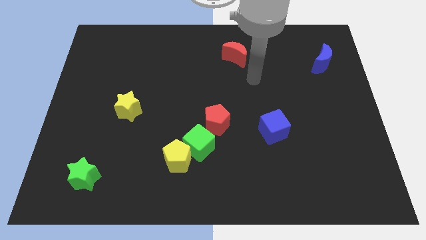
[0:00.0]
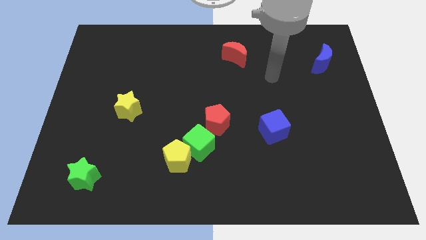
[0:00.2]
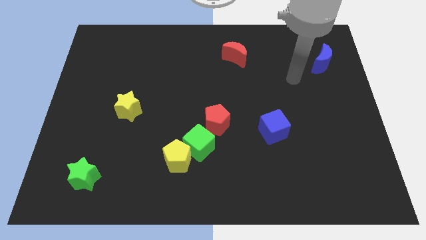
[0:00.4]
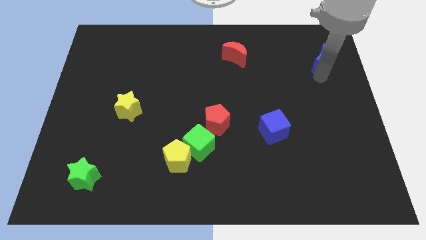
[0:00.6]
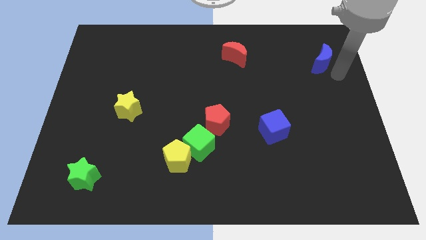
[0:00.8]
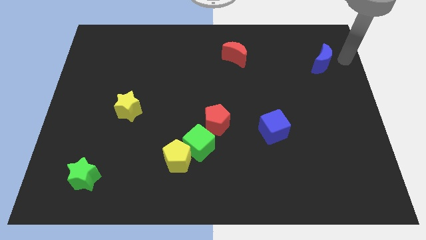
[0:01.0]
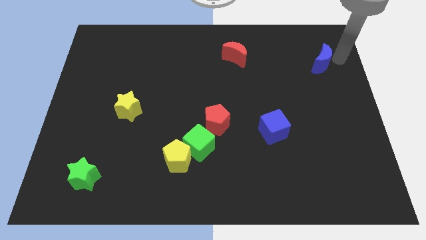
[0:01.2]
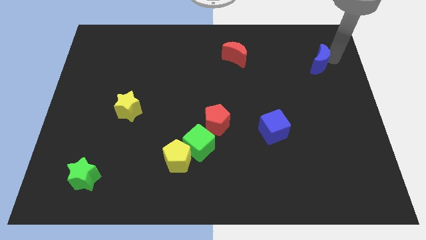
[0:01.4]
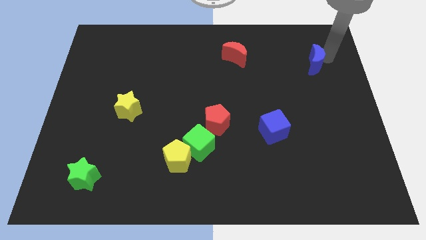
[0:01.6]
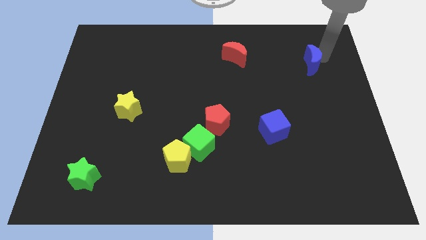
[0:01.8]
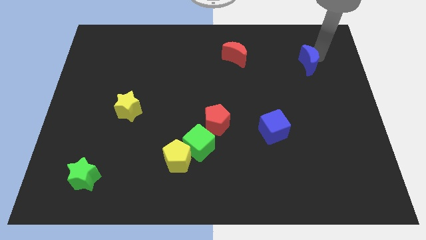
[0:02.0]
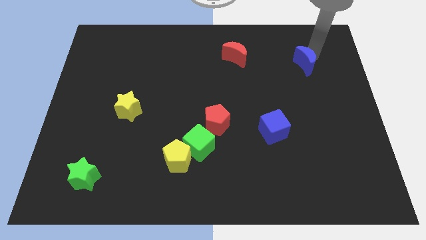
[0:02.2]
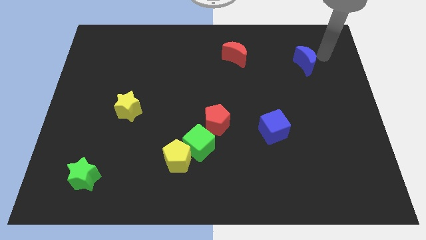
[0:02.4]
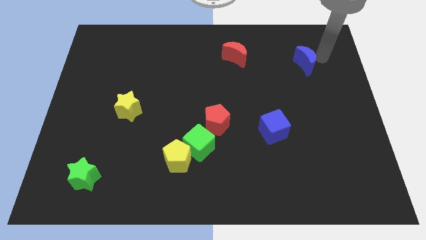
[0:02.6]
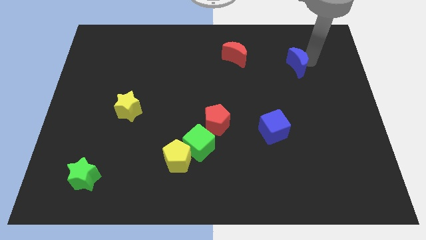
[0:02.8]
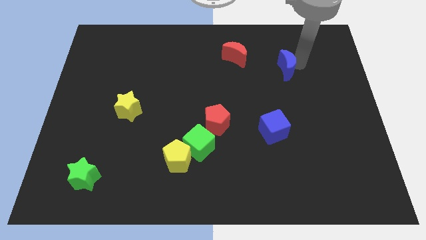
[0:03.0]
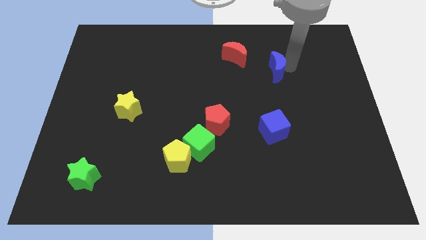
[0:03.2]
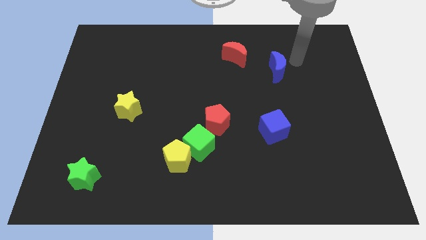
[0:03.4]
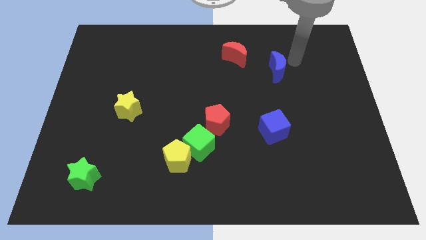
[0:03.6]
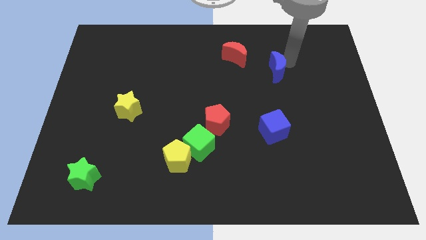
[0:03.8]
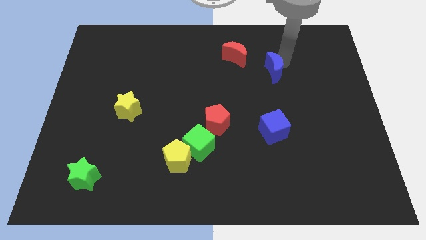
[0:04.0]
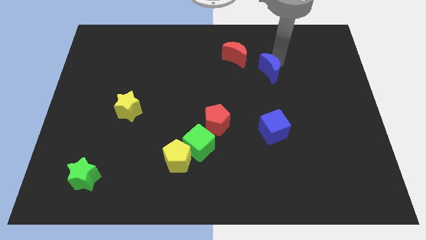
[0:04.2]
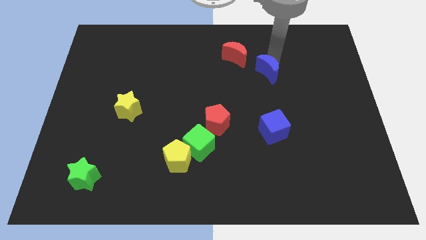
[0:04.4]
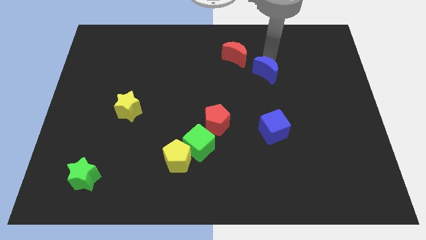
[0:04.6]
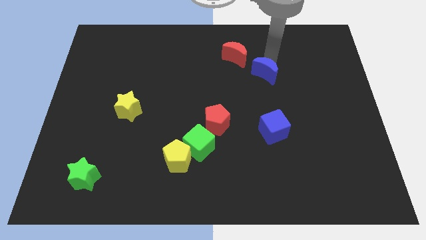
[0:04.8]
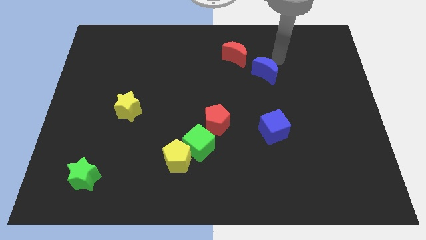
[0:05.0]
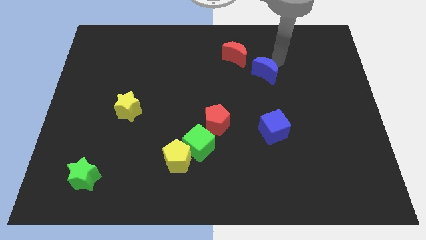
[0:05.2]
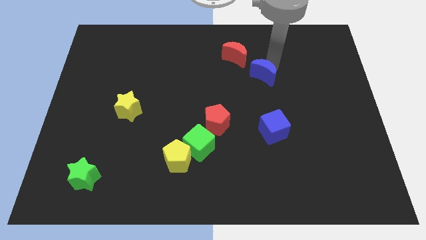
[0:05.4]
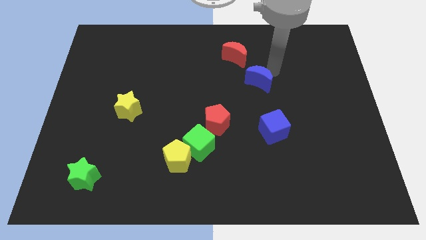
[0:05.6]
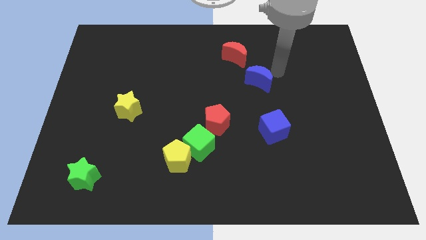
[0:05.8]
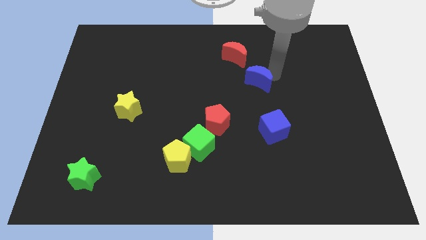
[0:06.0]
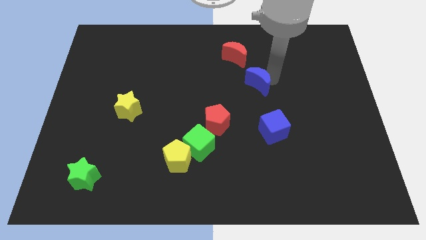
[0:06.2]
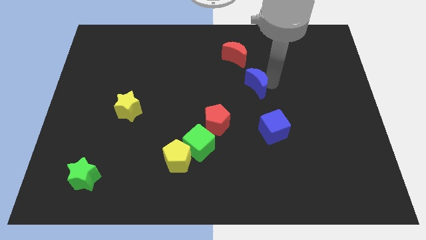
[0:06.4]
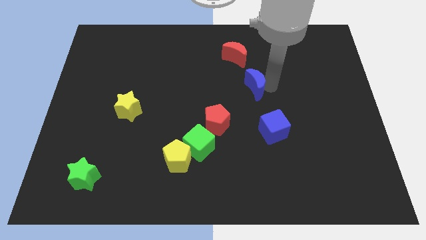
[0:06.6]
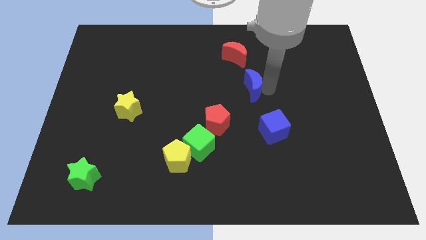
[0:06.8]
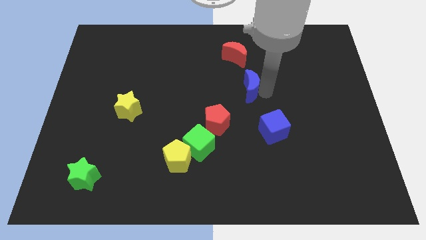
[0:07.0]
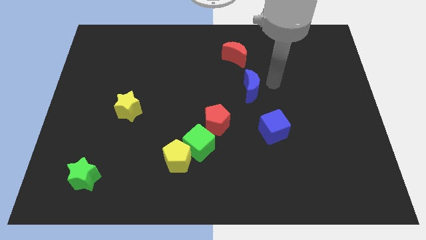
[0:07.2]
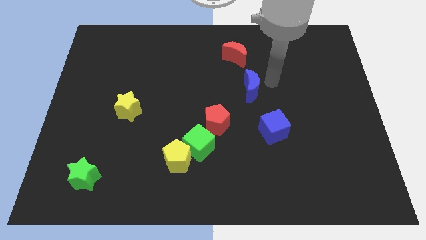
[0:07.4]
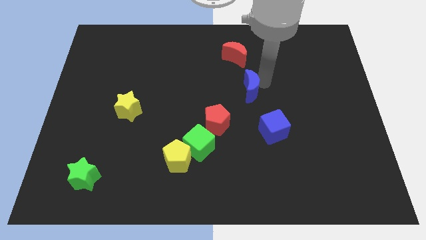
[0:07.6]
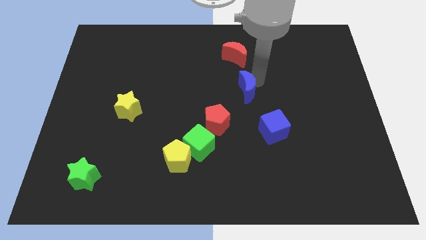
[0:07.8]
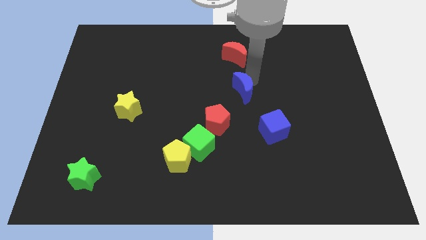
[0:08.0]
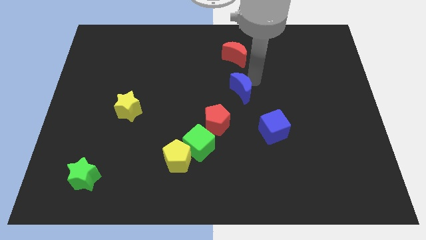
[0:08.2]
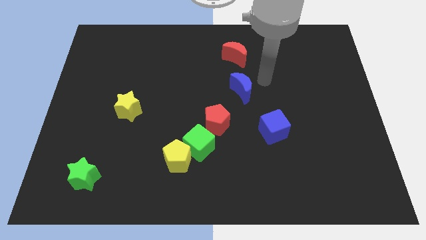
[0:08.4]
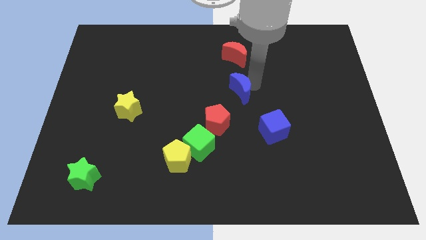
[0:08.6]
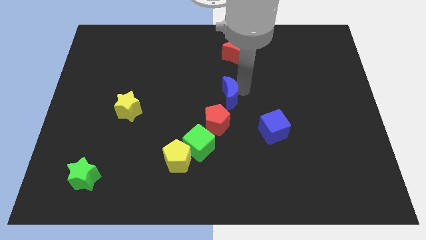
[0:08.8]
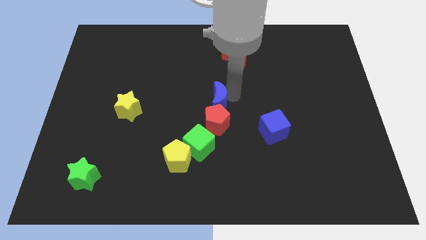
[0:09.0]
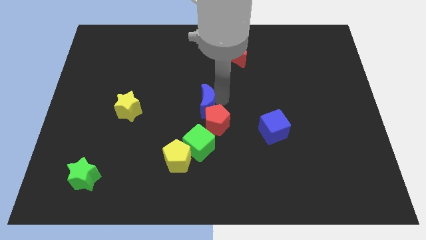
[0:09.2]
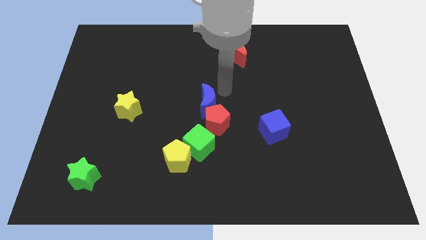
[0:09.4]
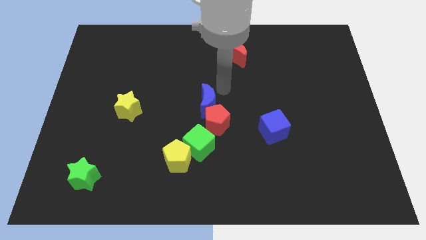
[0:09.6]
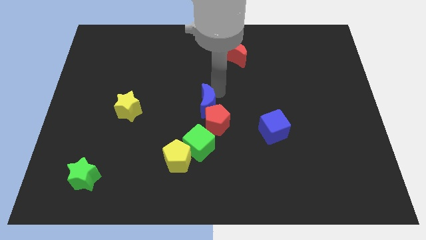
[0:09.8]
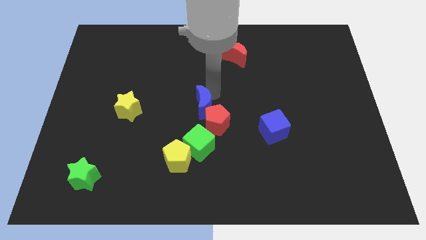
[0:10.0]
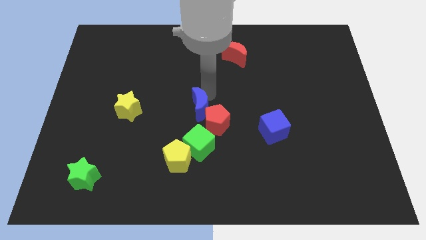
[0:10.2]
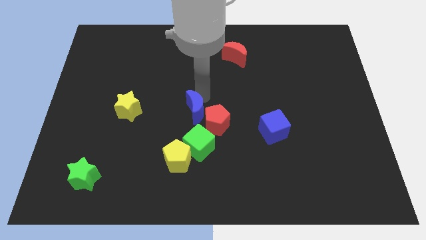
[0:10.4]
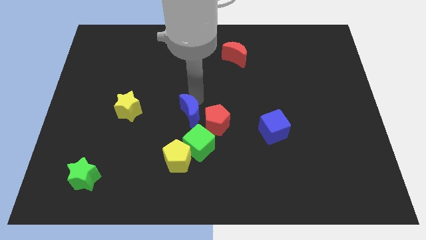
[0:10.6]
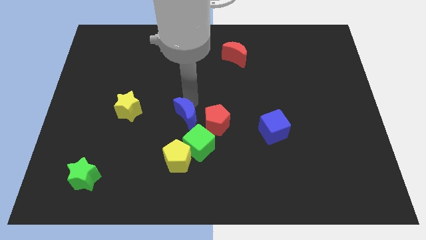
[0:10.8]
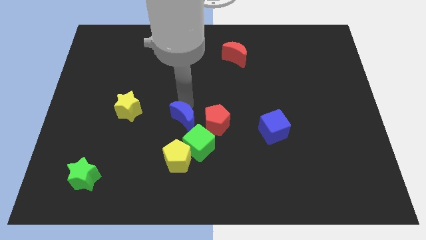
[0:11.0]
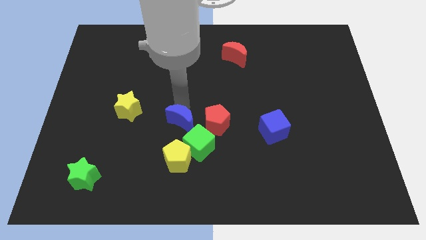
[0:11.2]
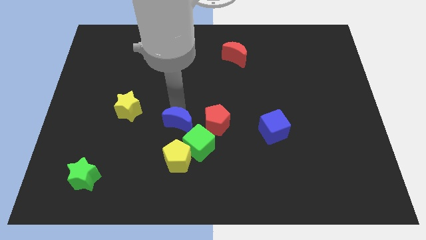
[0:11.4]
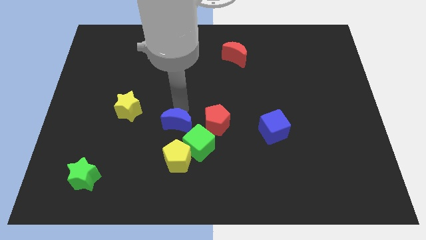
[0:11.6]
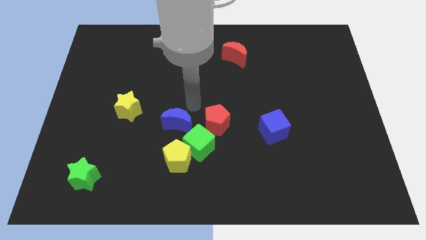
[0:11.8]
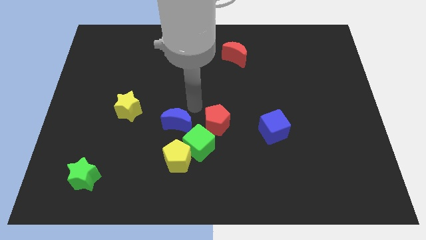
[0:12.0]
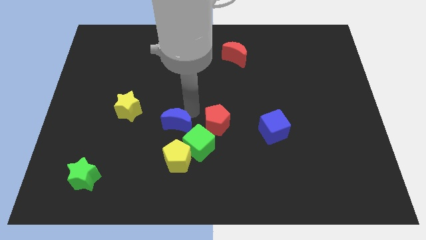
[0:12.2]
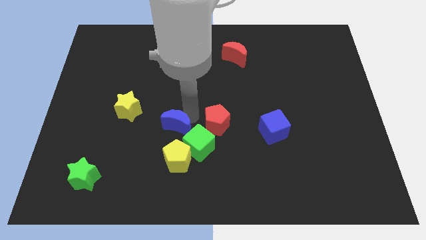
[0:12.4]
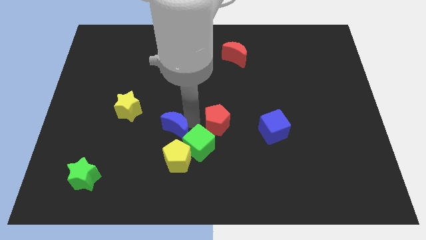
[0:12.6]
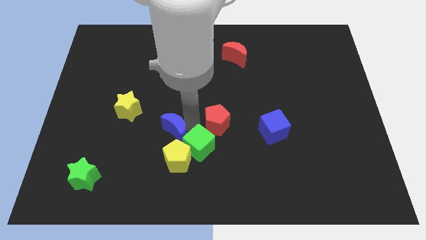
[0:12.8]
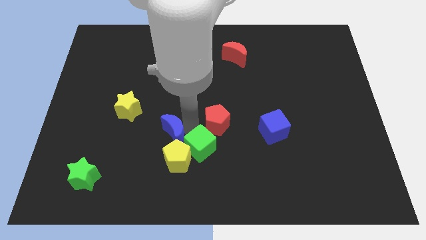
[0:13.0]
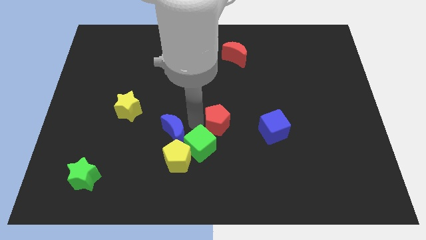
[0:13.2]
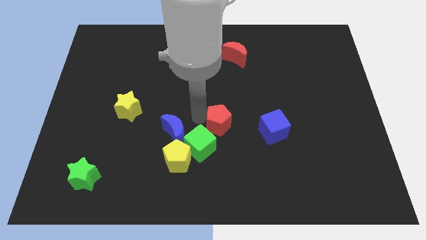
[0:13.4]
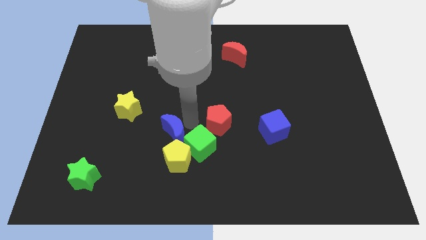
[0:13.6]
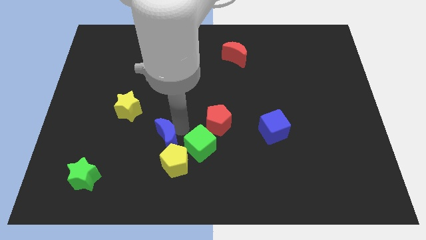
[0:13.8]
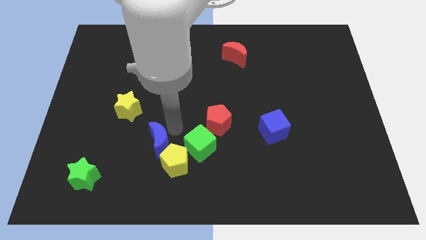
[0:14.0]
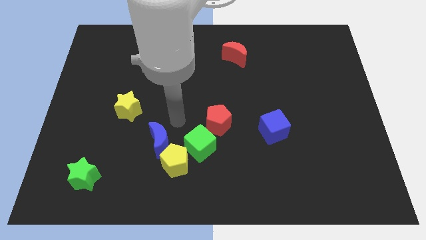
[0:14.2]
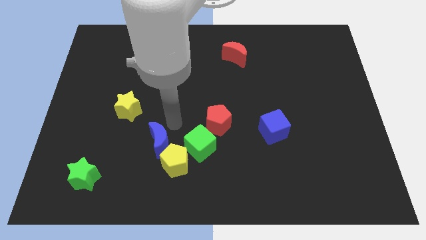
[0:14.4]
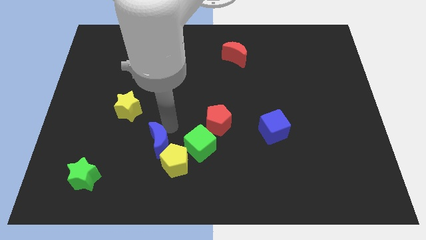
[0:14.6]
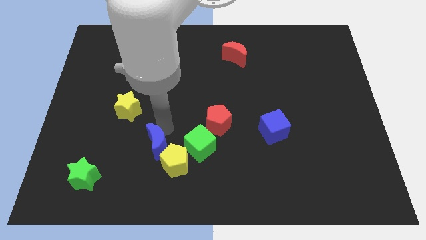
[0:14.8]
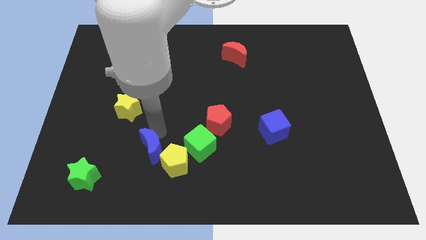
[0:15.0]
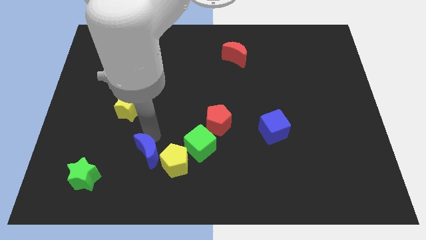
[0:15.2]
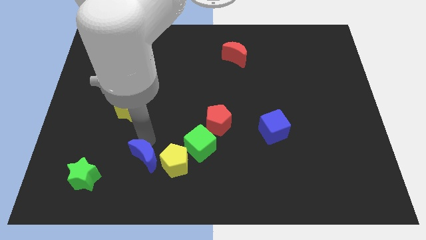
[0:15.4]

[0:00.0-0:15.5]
slide the blue moon to the right side of the green star
